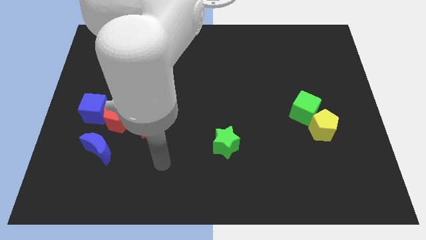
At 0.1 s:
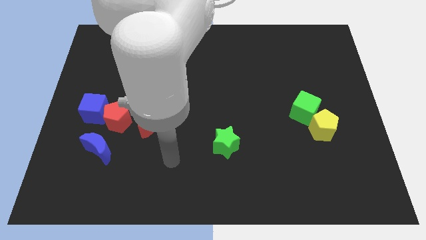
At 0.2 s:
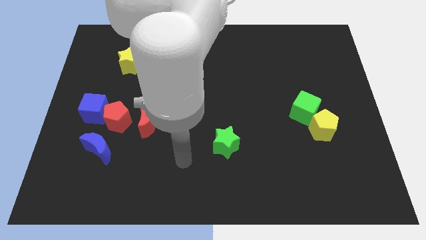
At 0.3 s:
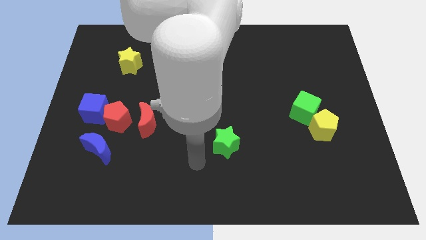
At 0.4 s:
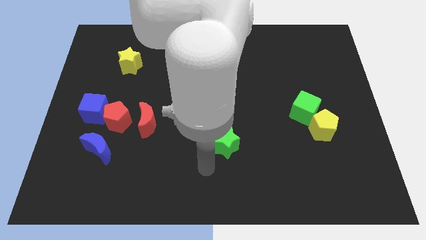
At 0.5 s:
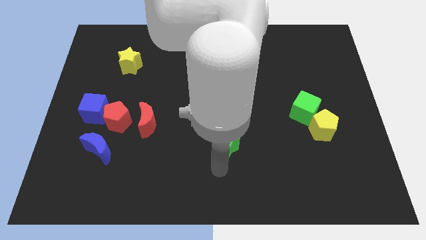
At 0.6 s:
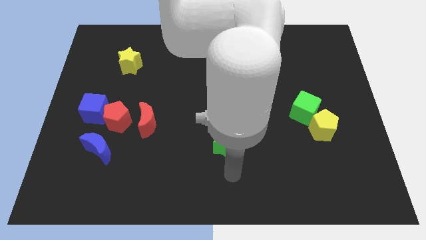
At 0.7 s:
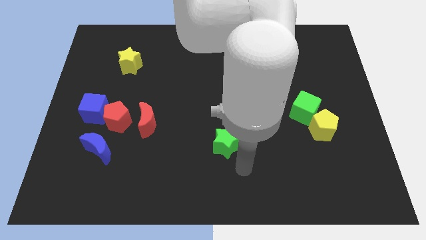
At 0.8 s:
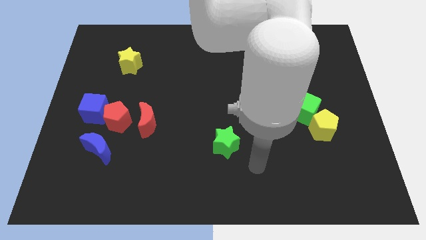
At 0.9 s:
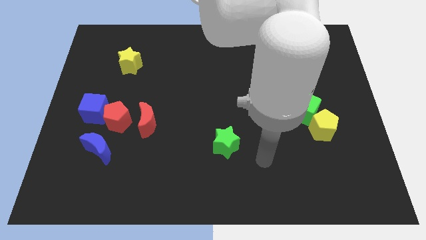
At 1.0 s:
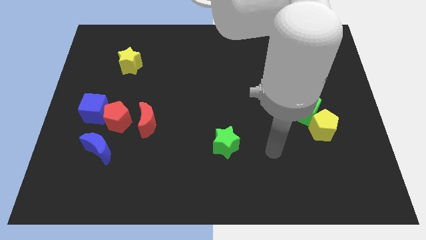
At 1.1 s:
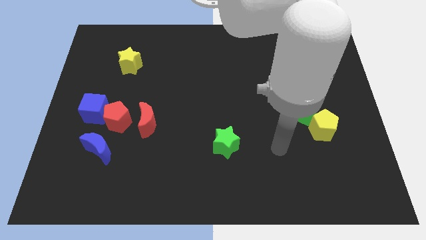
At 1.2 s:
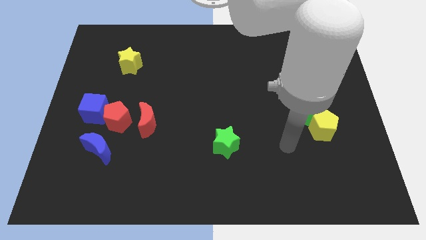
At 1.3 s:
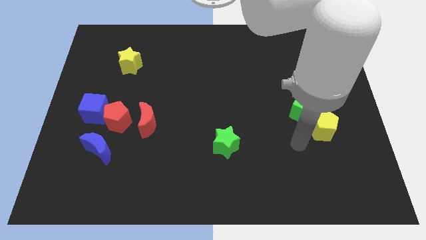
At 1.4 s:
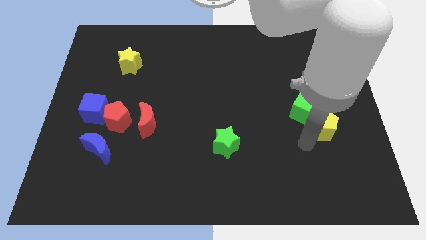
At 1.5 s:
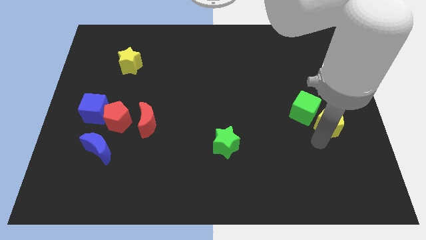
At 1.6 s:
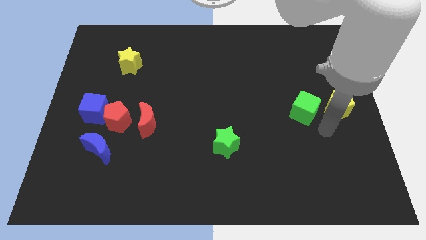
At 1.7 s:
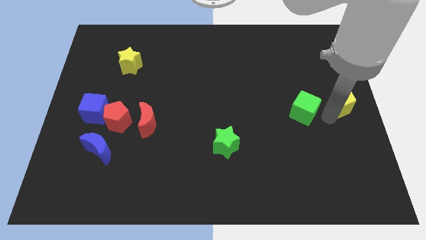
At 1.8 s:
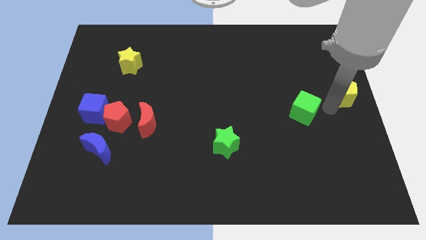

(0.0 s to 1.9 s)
separate the green cube from the yellow pentagon

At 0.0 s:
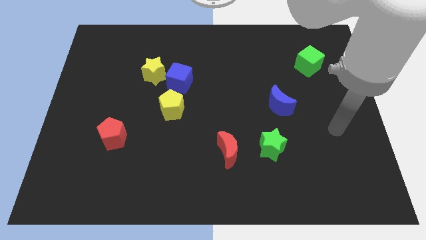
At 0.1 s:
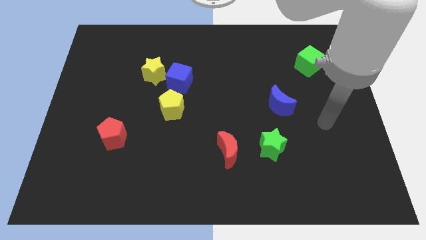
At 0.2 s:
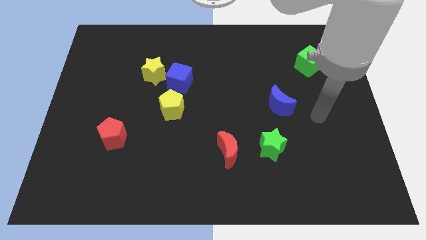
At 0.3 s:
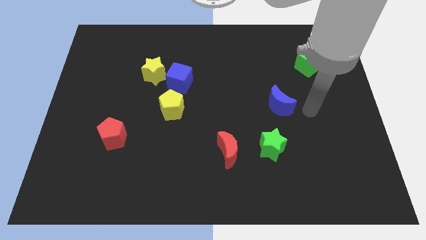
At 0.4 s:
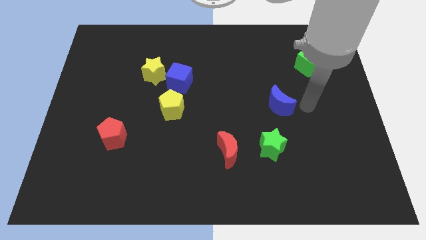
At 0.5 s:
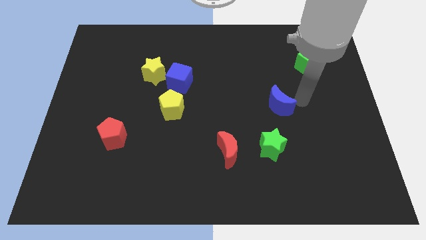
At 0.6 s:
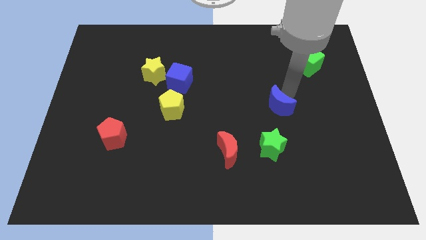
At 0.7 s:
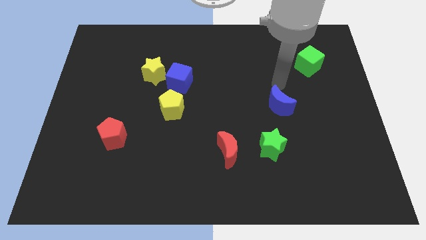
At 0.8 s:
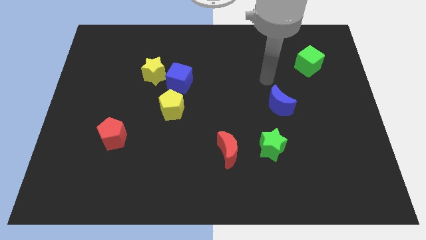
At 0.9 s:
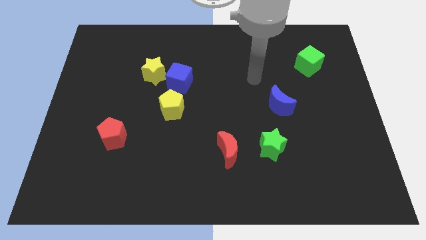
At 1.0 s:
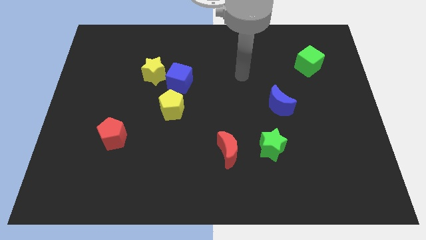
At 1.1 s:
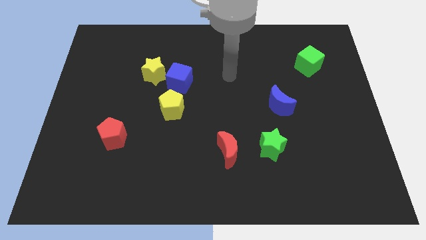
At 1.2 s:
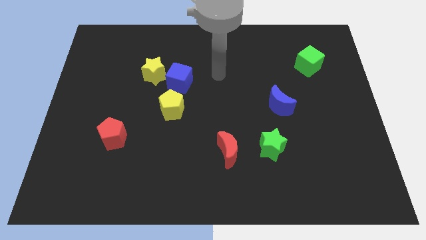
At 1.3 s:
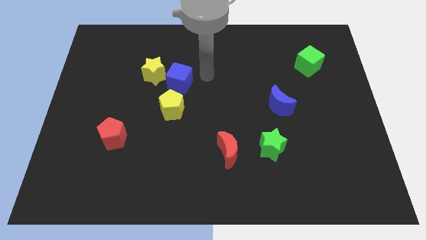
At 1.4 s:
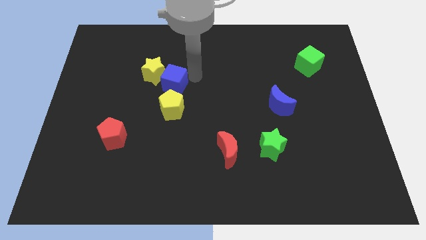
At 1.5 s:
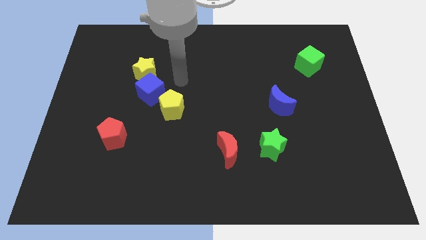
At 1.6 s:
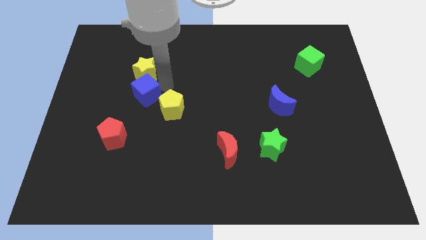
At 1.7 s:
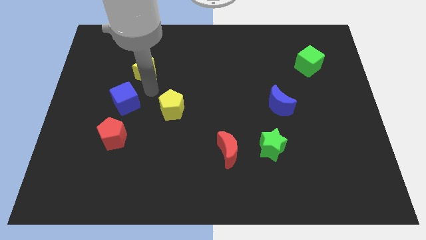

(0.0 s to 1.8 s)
pull the yellow star apart from the blue cube

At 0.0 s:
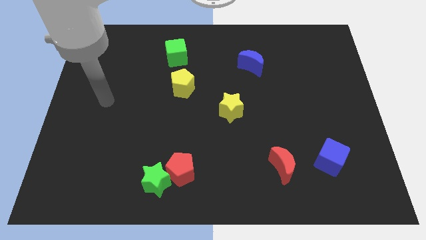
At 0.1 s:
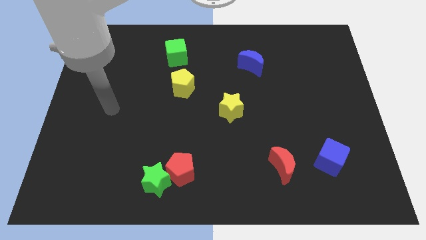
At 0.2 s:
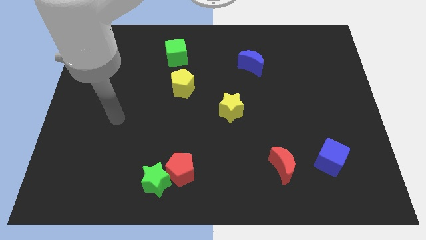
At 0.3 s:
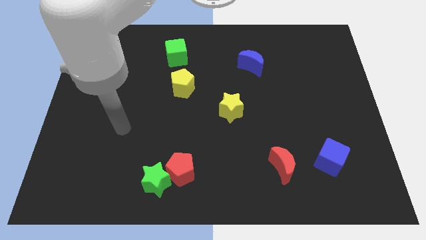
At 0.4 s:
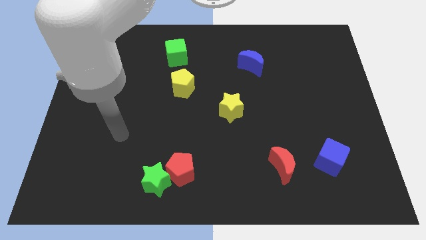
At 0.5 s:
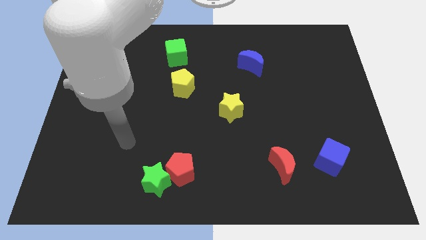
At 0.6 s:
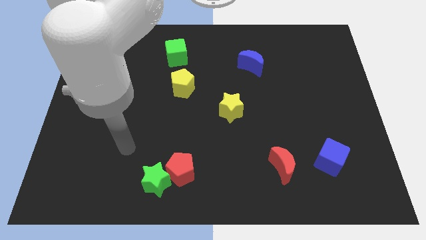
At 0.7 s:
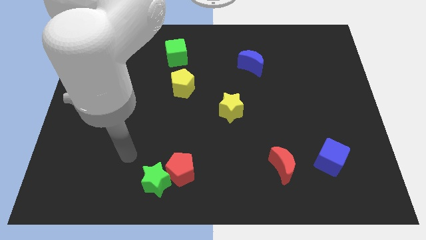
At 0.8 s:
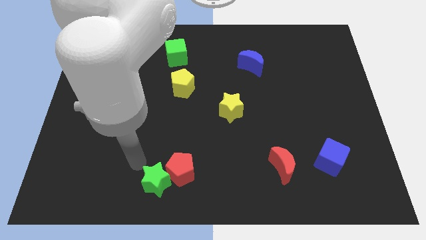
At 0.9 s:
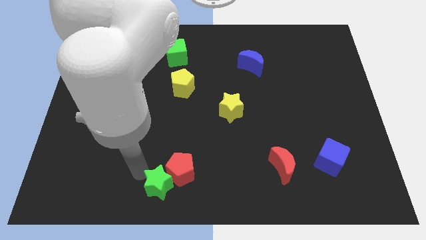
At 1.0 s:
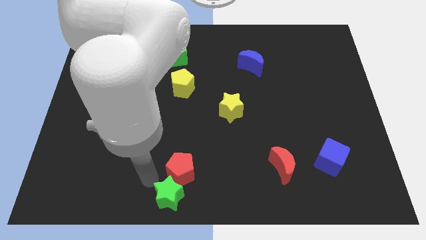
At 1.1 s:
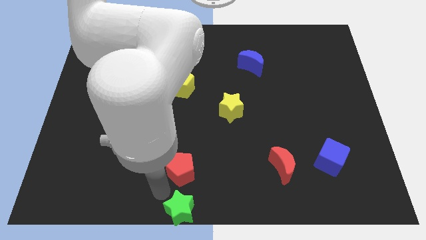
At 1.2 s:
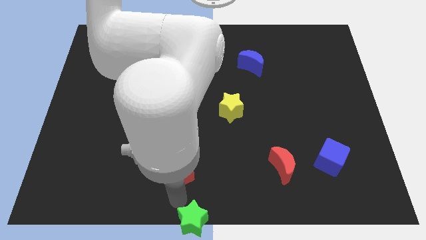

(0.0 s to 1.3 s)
pull the red pentagon apart from the green star

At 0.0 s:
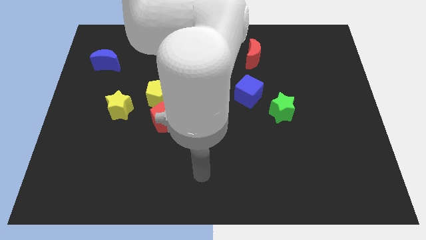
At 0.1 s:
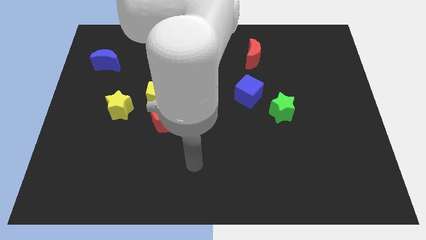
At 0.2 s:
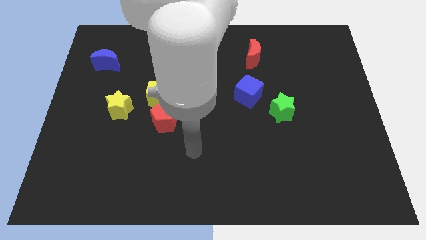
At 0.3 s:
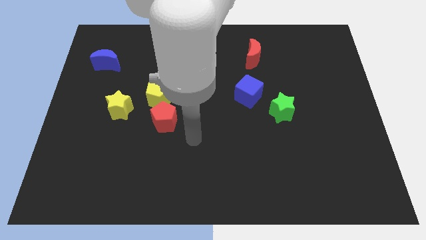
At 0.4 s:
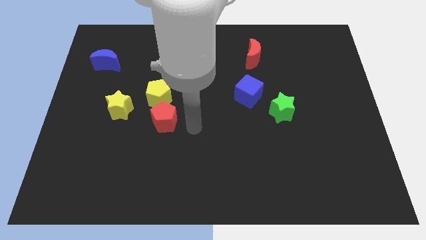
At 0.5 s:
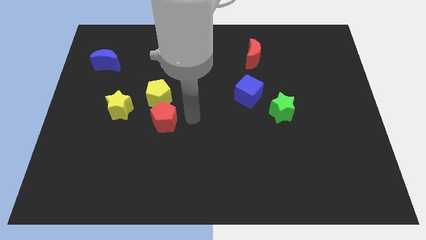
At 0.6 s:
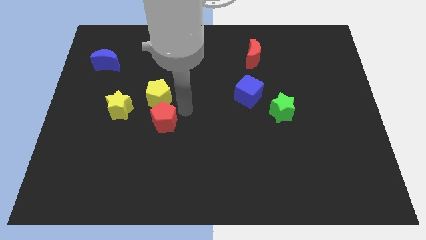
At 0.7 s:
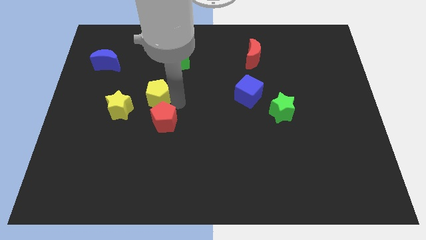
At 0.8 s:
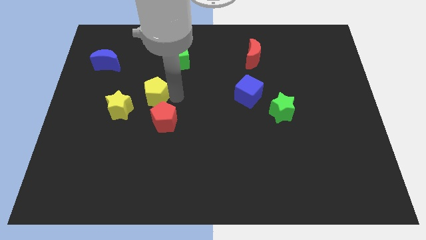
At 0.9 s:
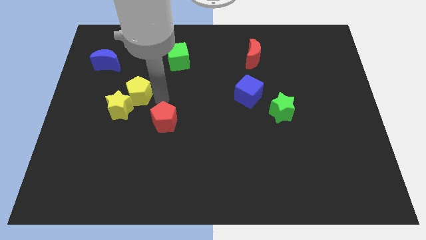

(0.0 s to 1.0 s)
pull the red pentagon apart from the yellow pentagon

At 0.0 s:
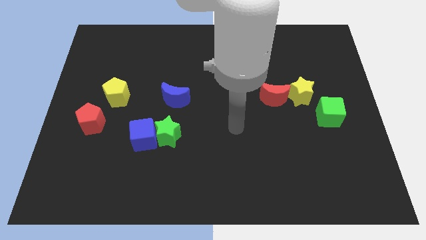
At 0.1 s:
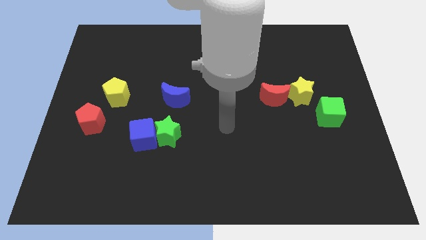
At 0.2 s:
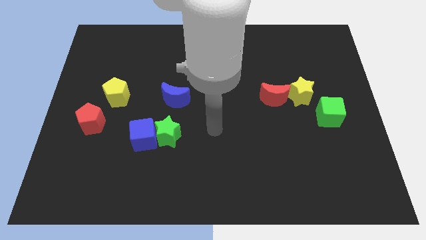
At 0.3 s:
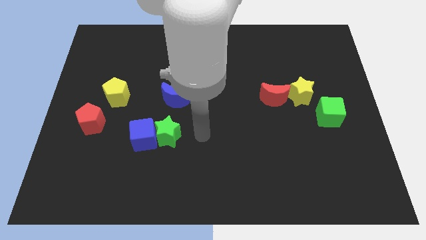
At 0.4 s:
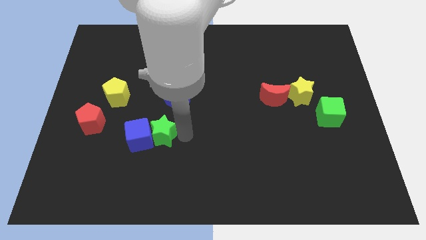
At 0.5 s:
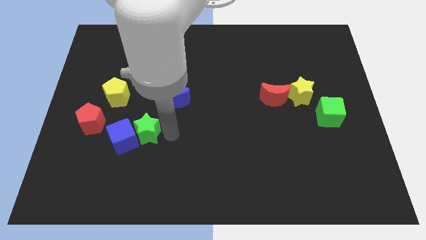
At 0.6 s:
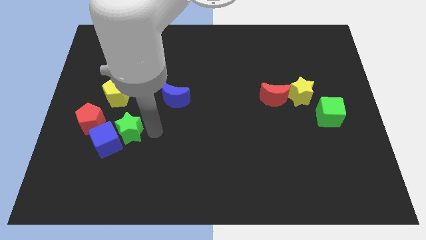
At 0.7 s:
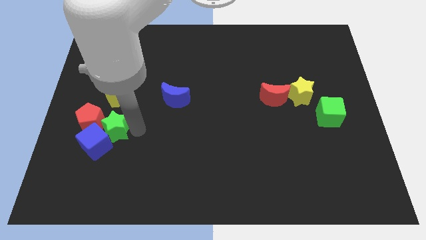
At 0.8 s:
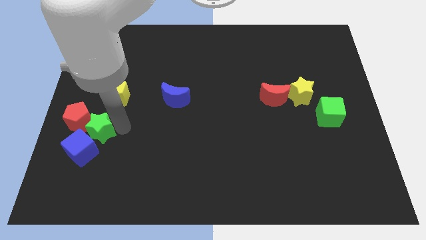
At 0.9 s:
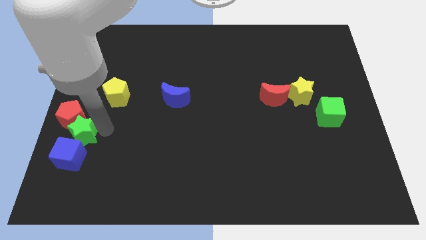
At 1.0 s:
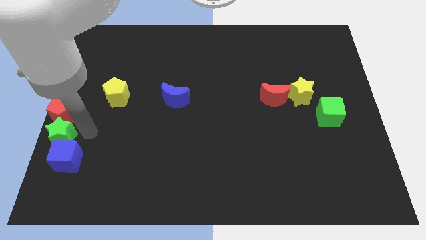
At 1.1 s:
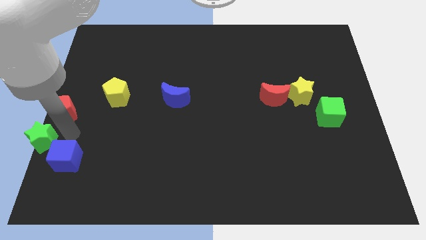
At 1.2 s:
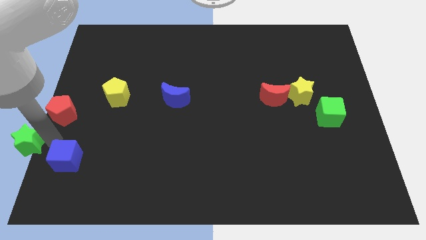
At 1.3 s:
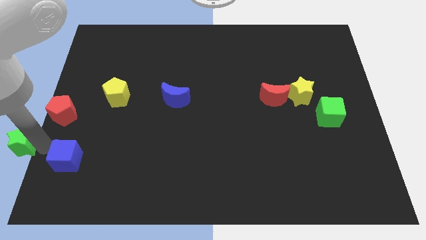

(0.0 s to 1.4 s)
separate the blue cube from the green star

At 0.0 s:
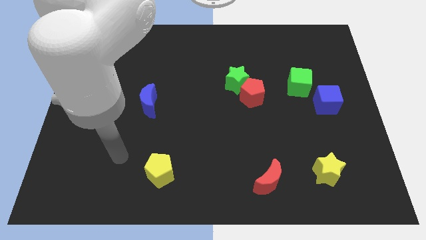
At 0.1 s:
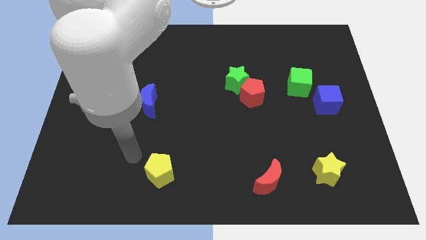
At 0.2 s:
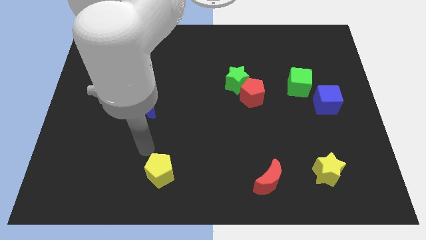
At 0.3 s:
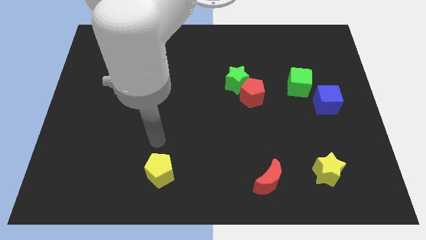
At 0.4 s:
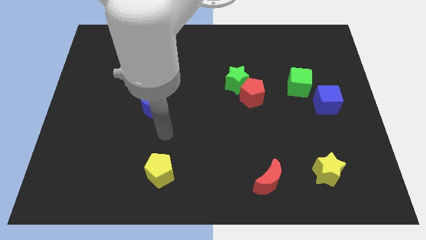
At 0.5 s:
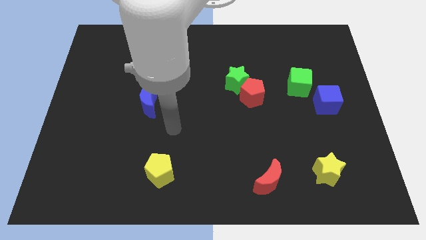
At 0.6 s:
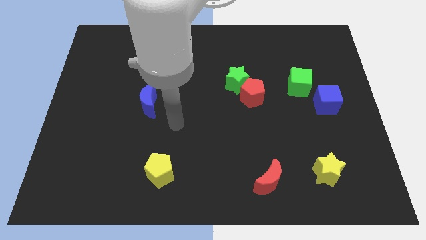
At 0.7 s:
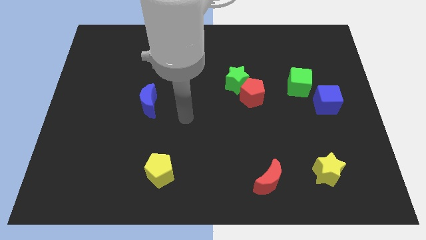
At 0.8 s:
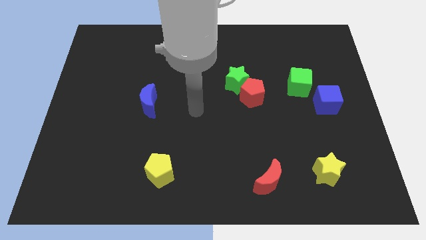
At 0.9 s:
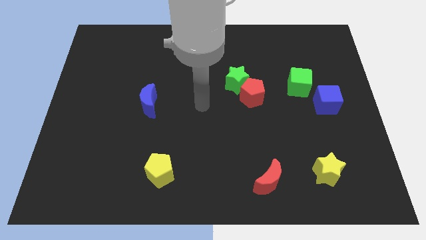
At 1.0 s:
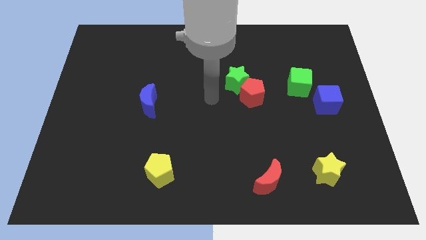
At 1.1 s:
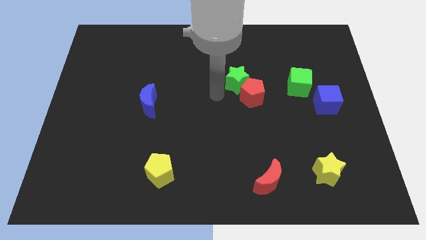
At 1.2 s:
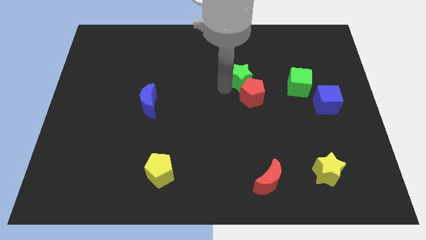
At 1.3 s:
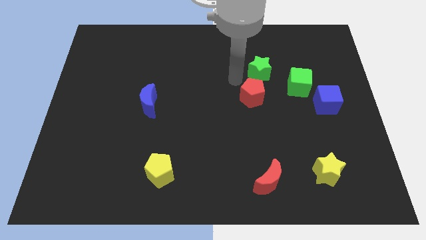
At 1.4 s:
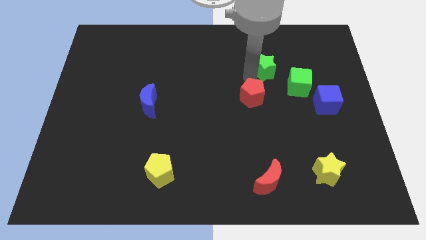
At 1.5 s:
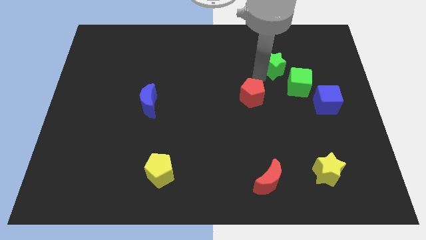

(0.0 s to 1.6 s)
move the red pentagon away from the green star

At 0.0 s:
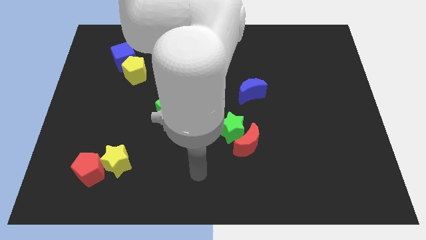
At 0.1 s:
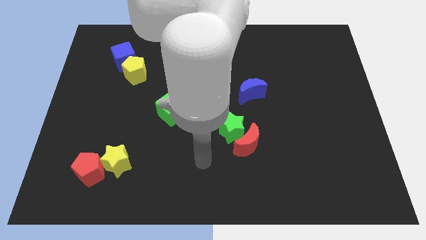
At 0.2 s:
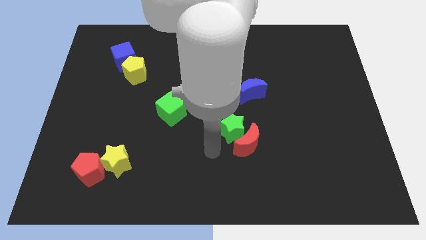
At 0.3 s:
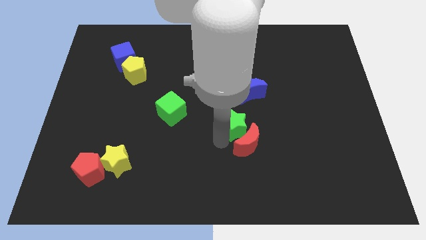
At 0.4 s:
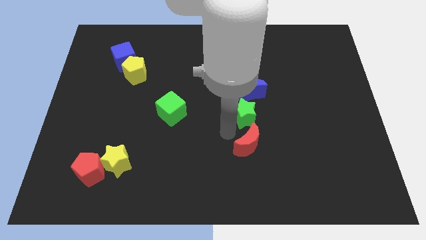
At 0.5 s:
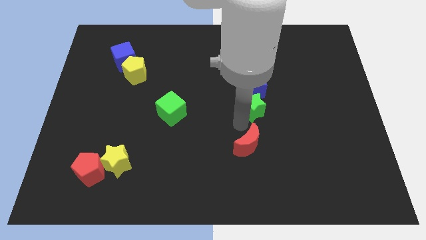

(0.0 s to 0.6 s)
separate the red moon from the green star
